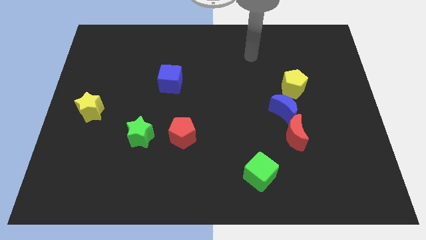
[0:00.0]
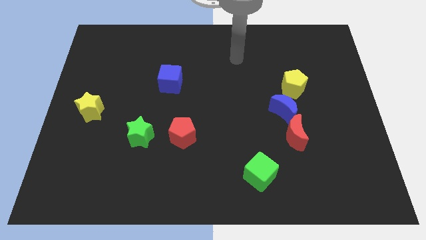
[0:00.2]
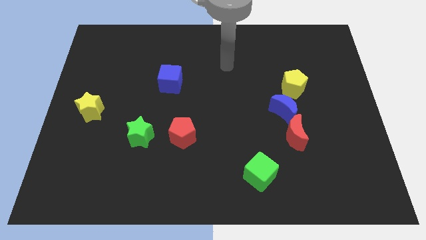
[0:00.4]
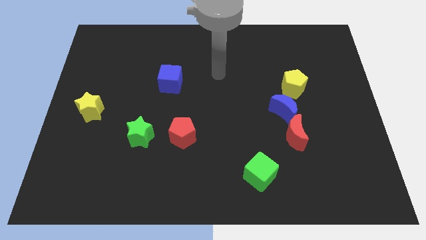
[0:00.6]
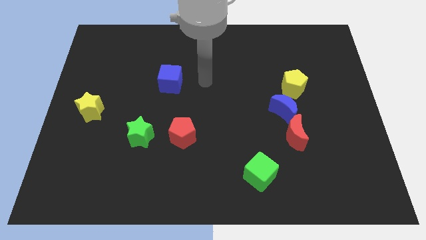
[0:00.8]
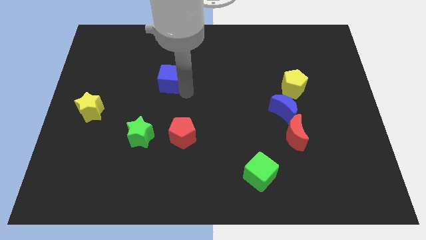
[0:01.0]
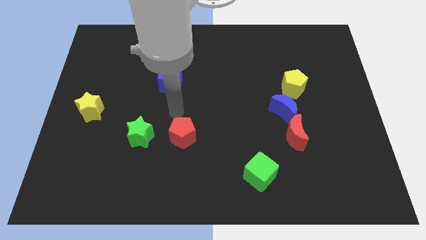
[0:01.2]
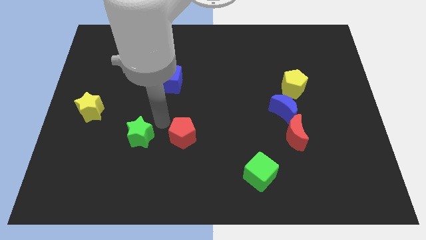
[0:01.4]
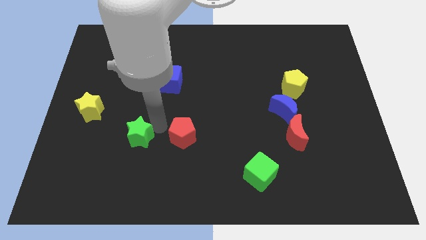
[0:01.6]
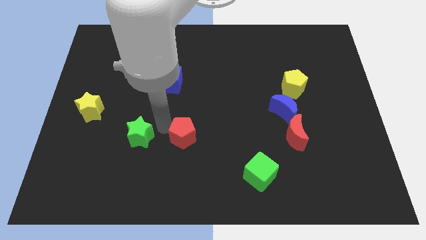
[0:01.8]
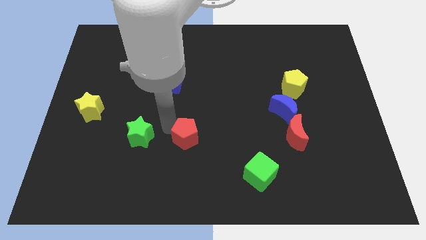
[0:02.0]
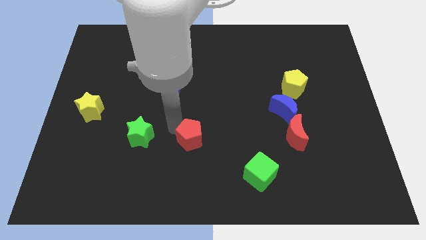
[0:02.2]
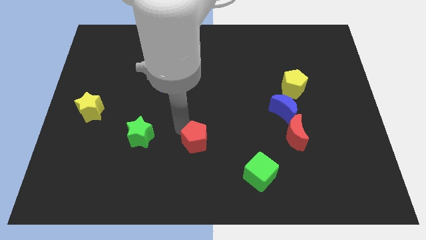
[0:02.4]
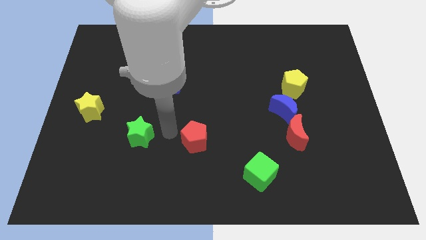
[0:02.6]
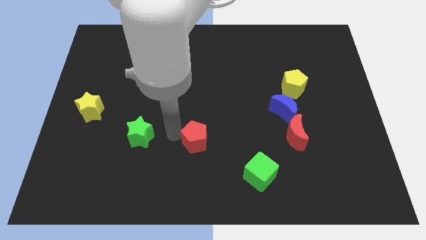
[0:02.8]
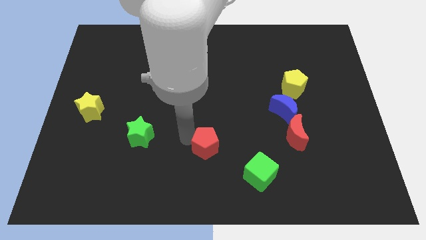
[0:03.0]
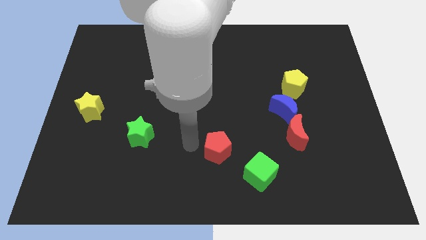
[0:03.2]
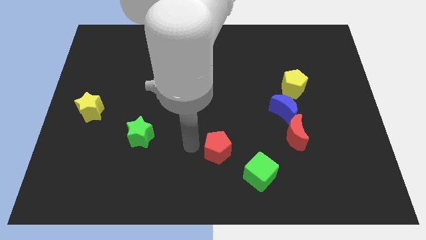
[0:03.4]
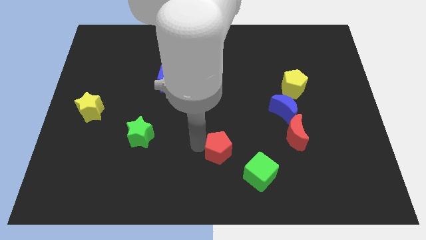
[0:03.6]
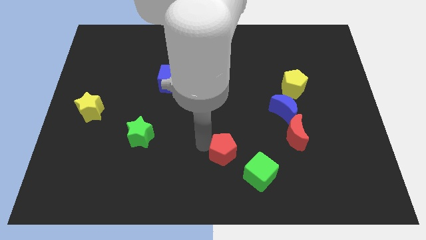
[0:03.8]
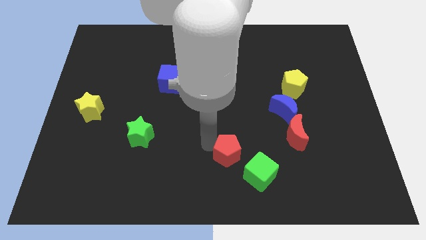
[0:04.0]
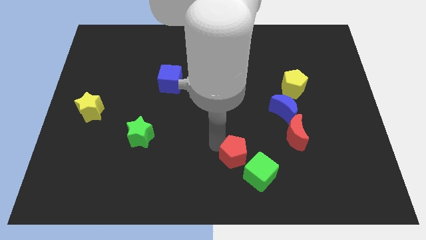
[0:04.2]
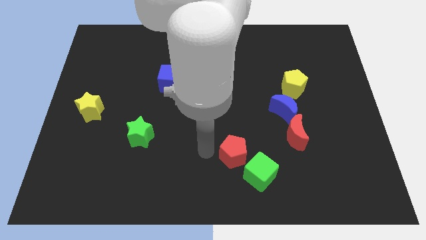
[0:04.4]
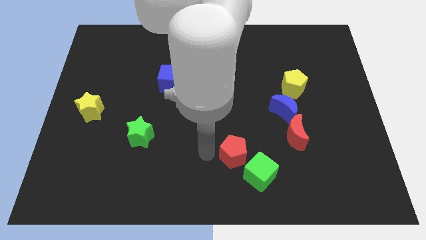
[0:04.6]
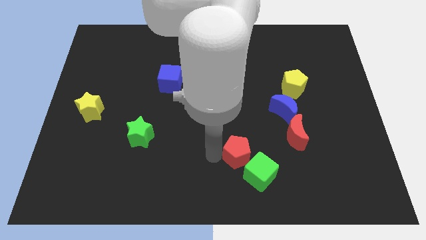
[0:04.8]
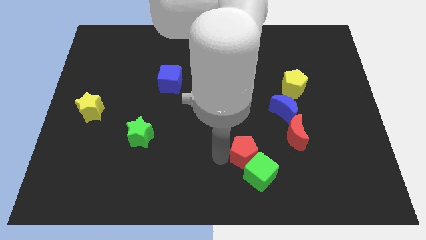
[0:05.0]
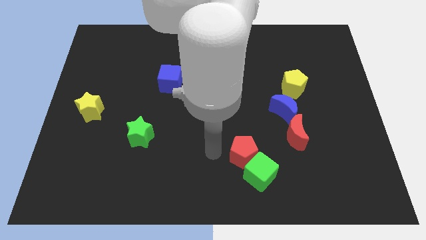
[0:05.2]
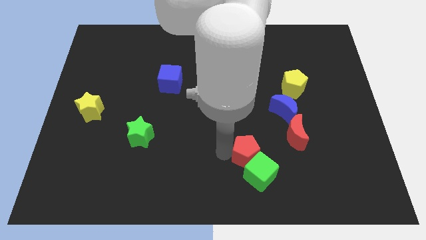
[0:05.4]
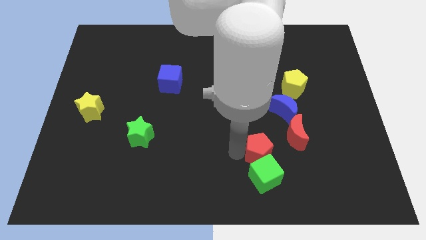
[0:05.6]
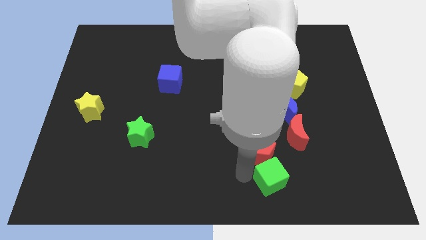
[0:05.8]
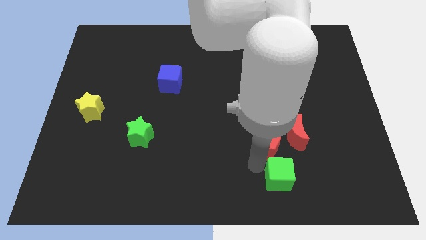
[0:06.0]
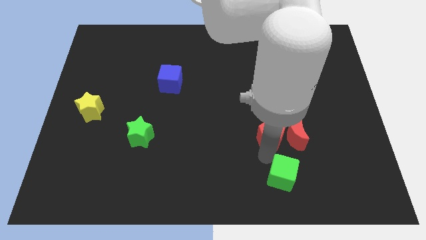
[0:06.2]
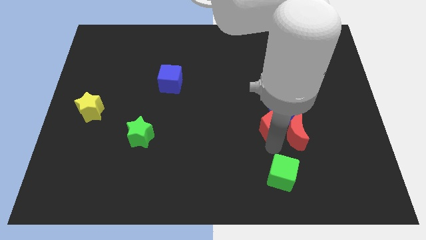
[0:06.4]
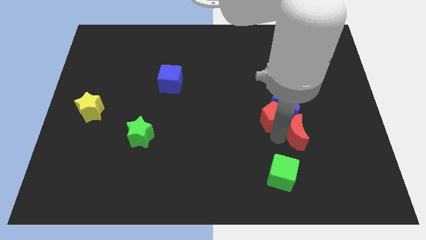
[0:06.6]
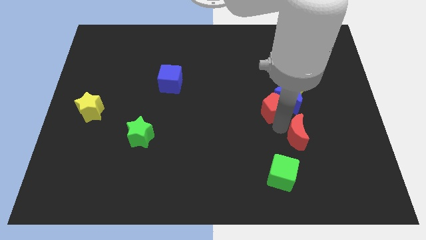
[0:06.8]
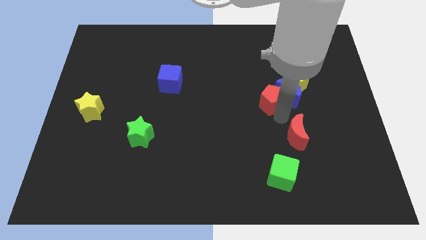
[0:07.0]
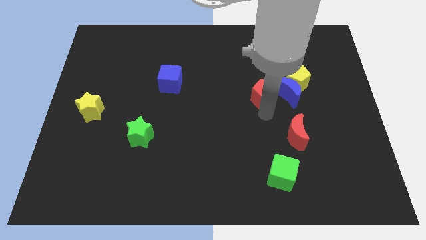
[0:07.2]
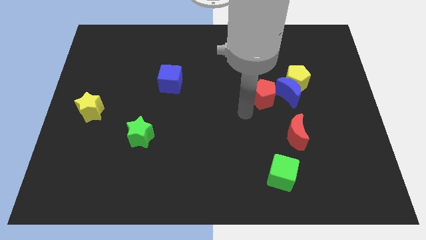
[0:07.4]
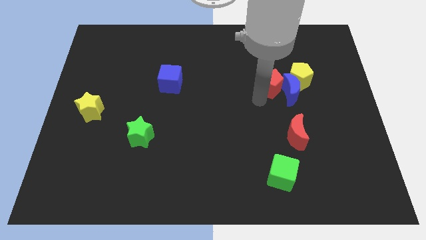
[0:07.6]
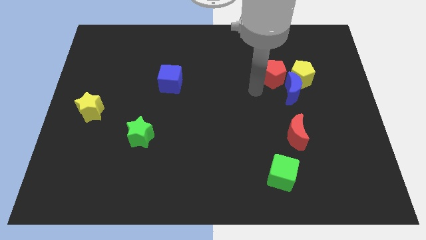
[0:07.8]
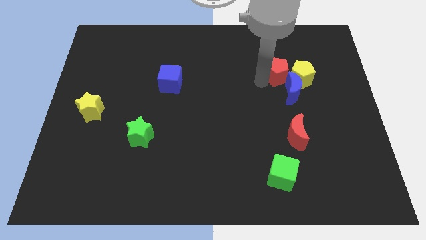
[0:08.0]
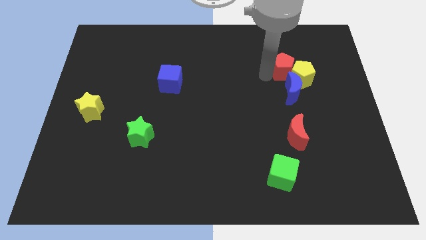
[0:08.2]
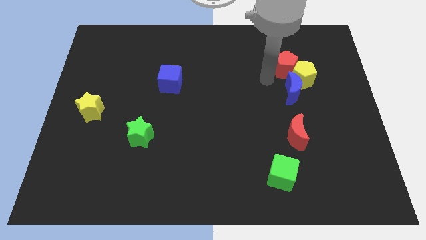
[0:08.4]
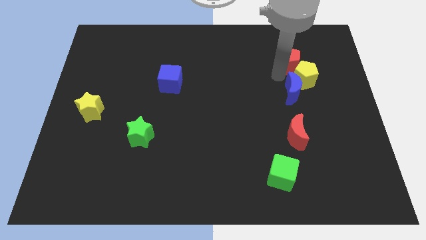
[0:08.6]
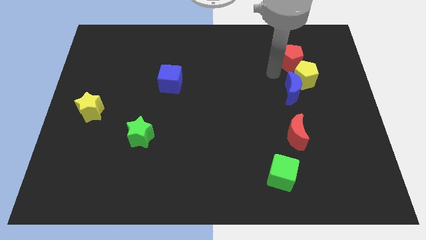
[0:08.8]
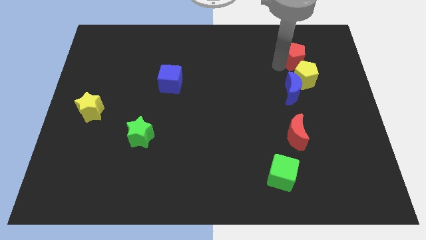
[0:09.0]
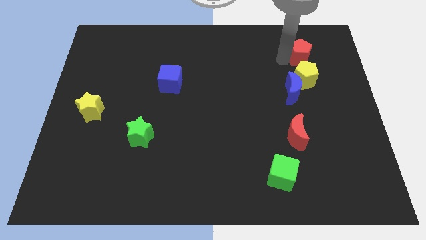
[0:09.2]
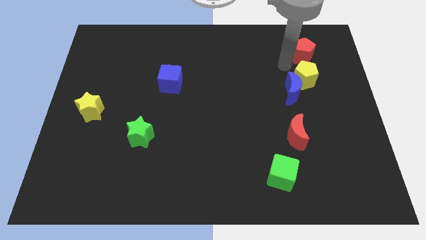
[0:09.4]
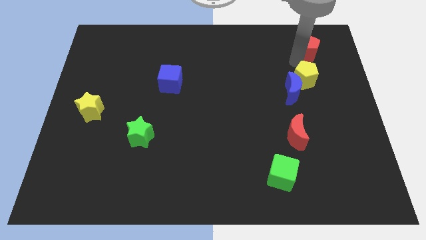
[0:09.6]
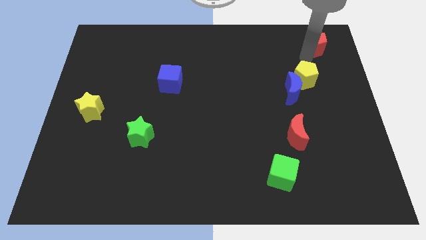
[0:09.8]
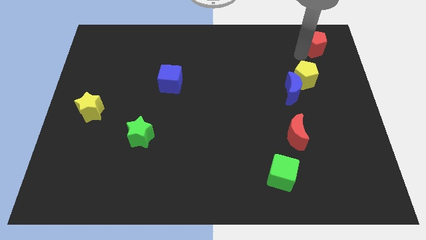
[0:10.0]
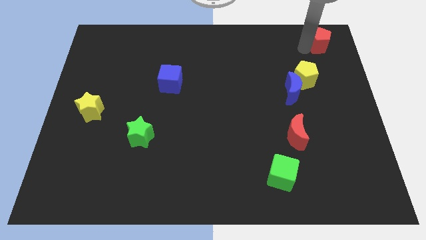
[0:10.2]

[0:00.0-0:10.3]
push the red pentagon to the upper right corner
